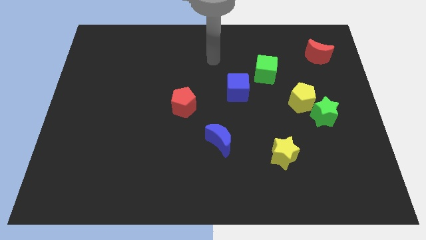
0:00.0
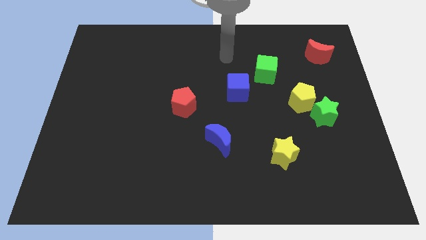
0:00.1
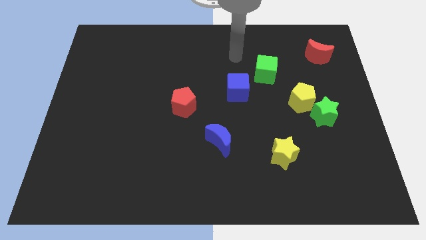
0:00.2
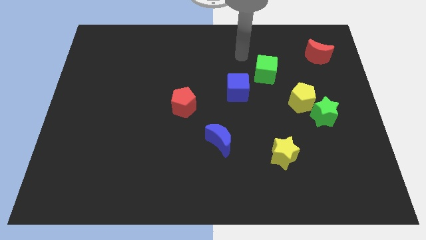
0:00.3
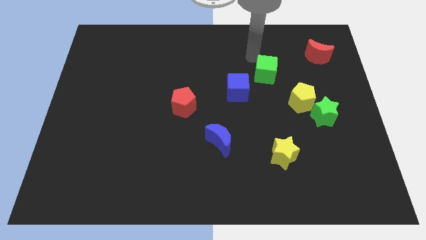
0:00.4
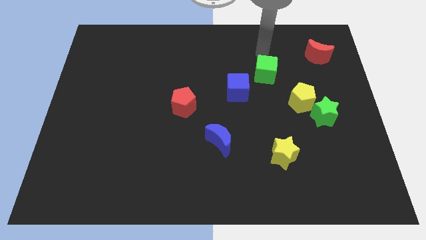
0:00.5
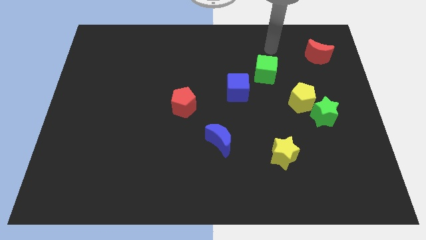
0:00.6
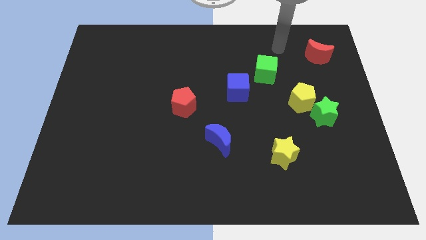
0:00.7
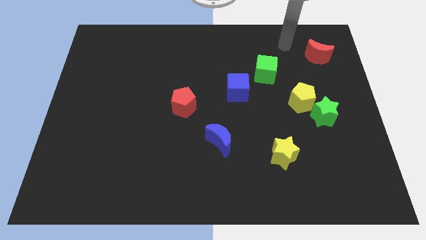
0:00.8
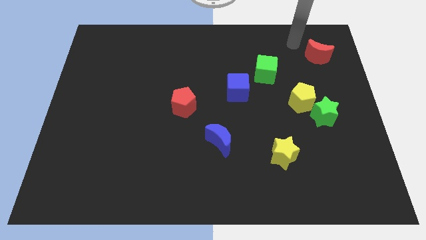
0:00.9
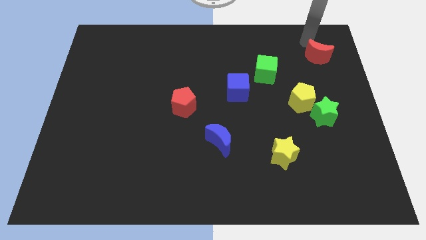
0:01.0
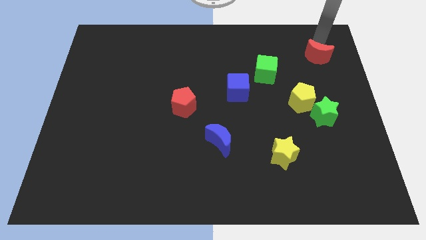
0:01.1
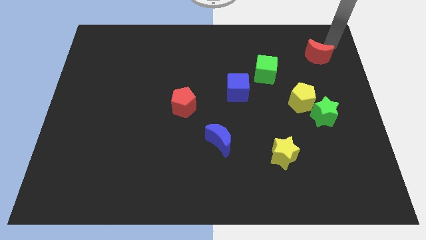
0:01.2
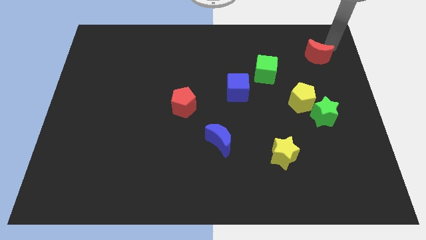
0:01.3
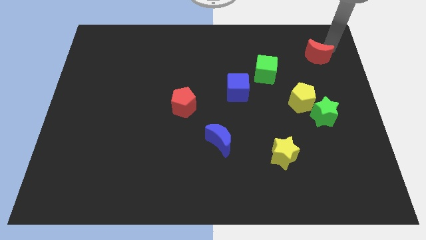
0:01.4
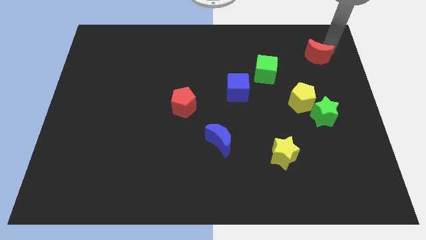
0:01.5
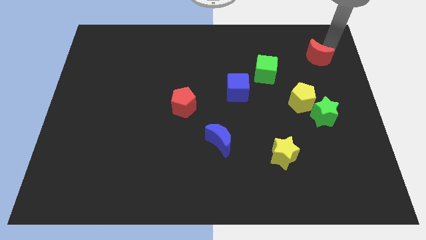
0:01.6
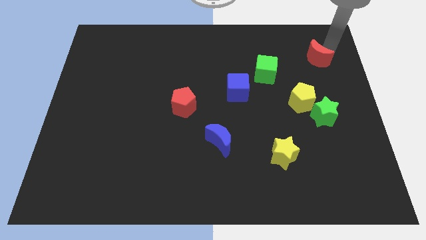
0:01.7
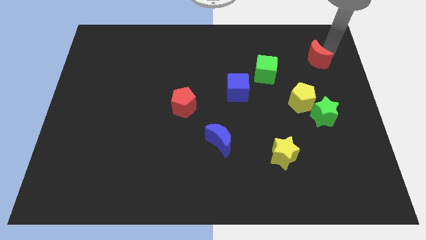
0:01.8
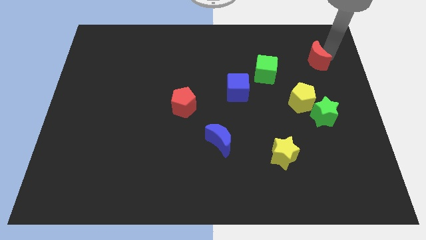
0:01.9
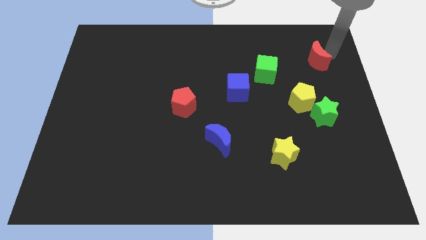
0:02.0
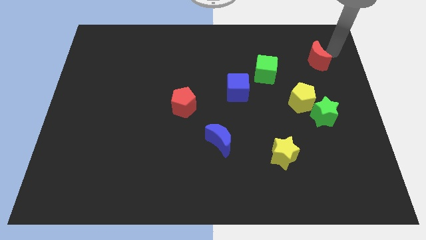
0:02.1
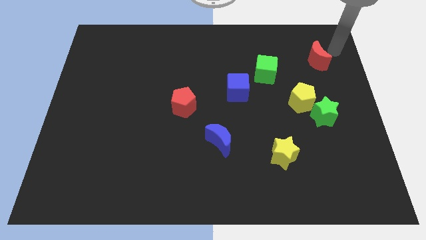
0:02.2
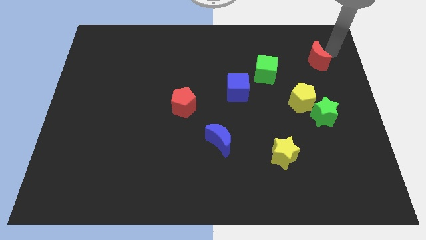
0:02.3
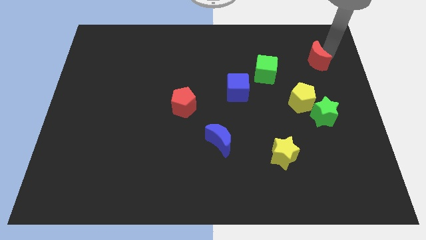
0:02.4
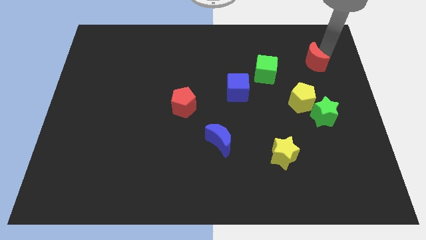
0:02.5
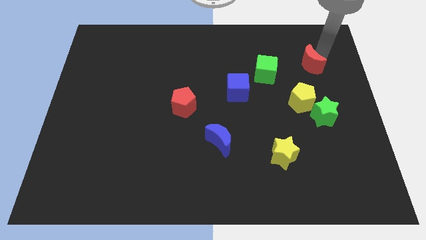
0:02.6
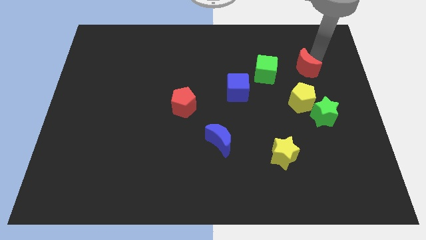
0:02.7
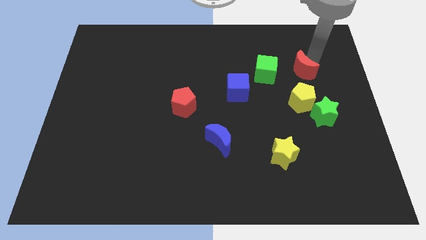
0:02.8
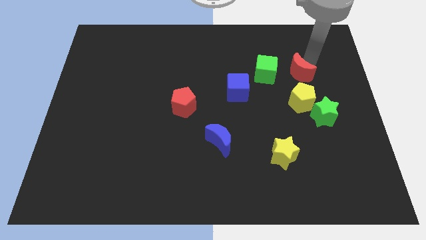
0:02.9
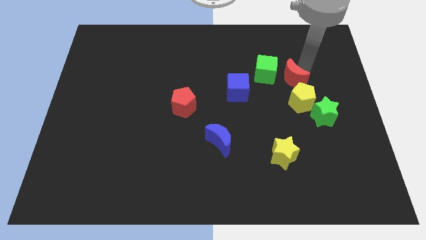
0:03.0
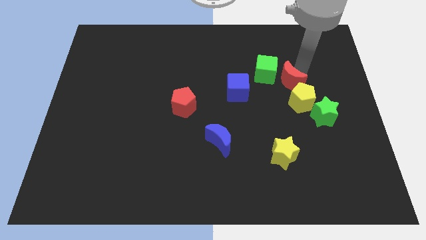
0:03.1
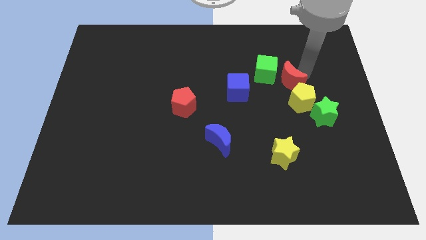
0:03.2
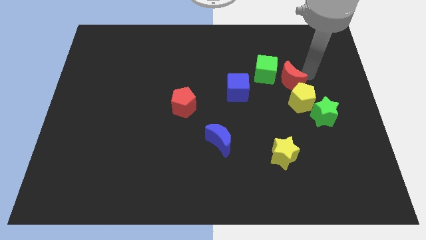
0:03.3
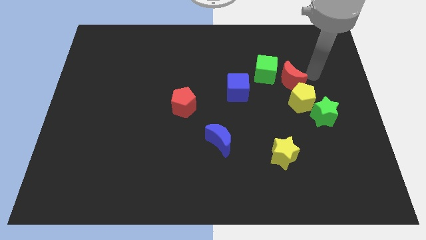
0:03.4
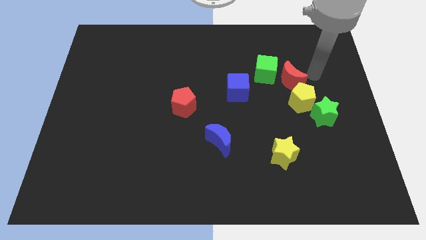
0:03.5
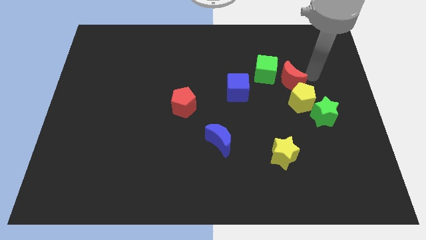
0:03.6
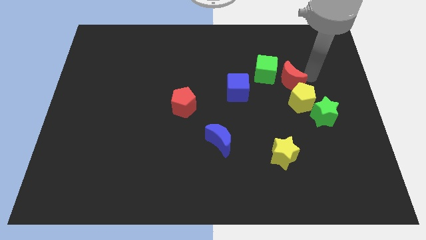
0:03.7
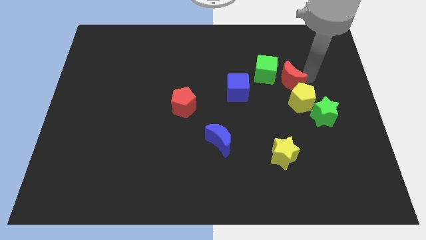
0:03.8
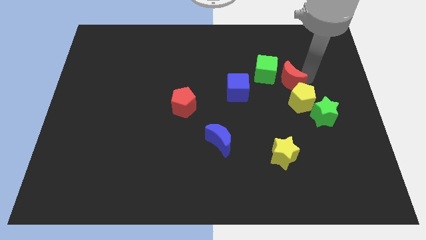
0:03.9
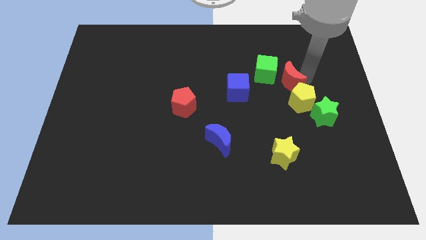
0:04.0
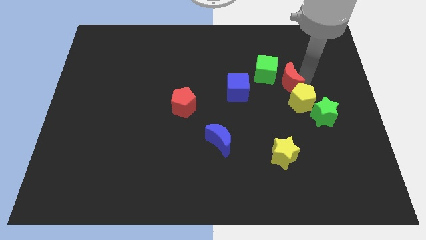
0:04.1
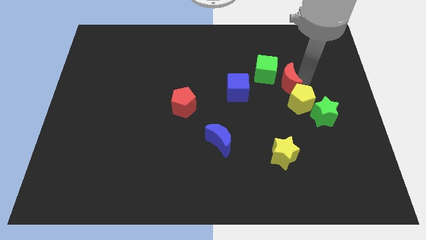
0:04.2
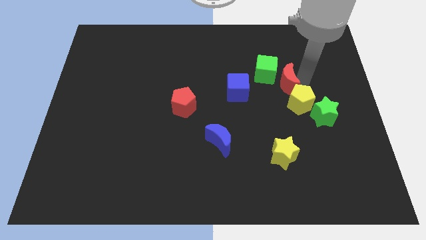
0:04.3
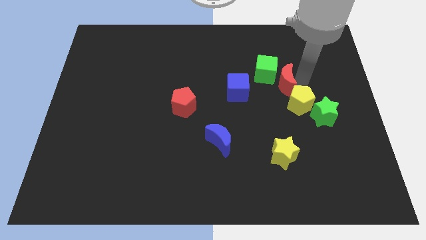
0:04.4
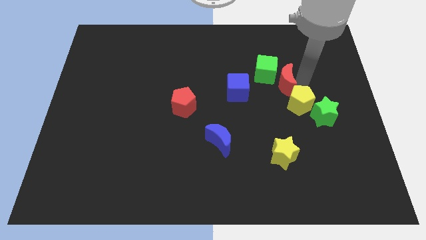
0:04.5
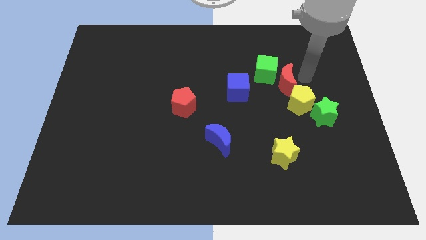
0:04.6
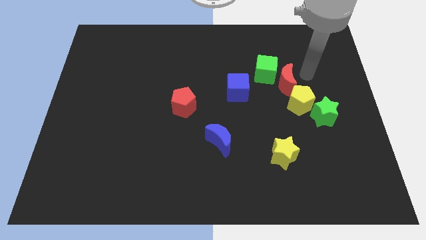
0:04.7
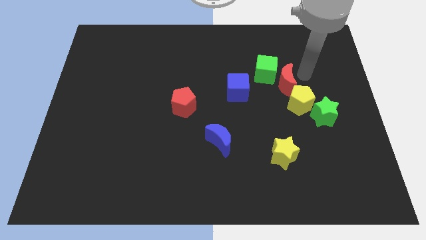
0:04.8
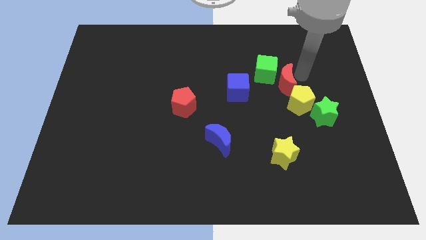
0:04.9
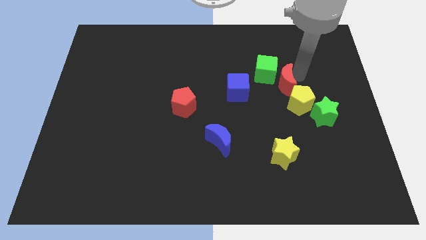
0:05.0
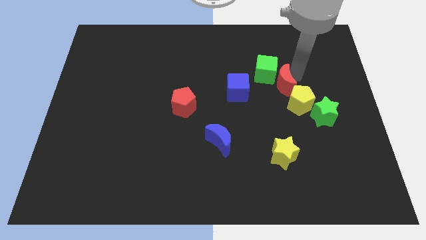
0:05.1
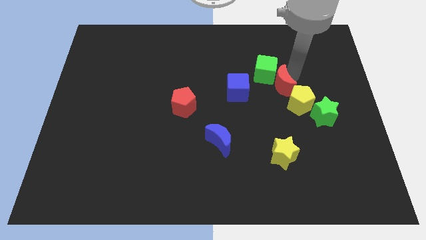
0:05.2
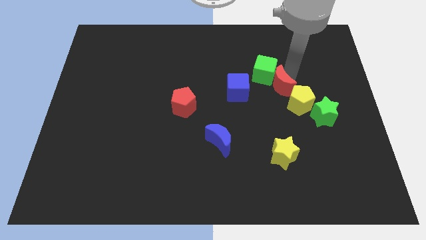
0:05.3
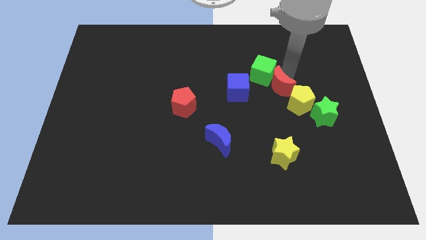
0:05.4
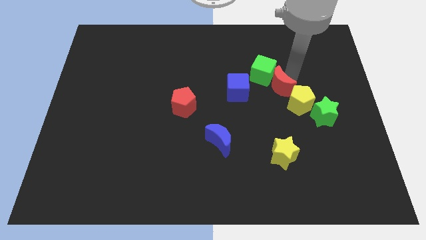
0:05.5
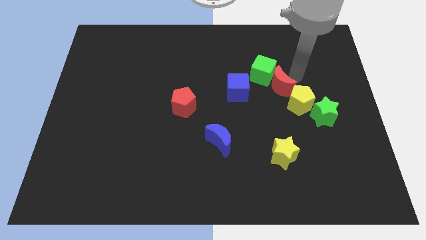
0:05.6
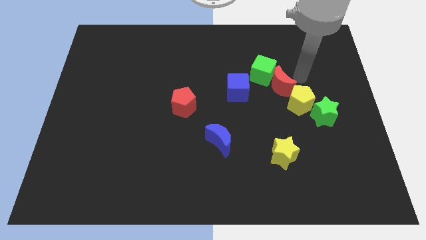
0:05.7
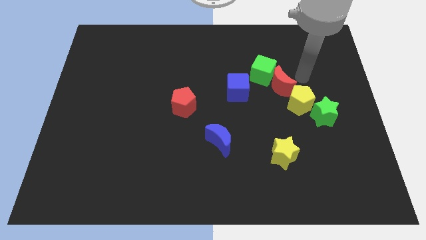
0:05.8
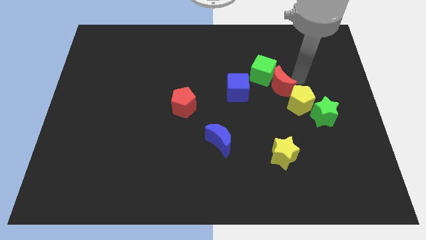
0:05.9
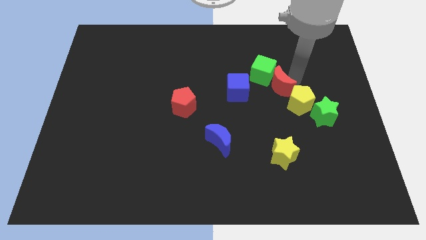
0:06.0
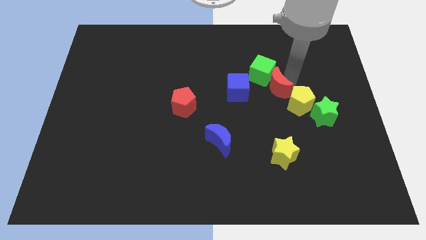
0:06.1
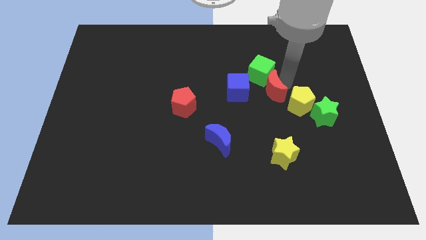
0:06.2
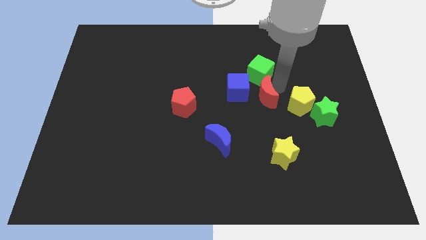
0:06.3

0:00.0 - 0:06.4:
put the red moon to the middle

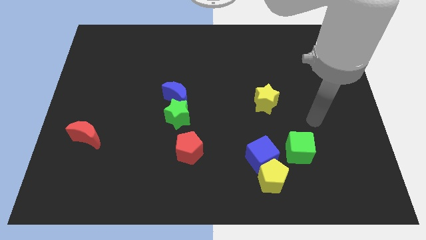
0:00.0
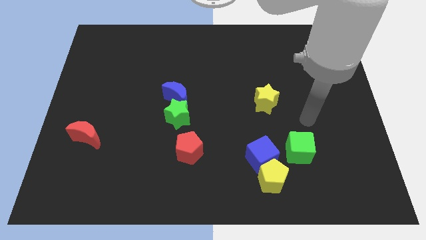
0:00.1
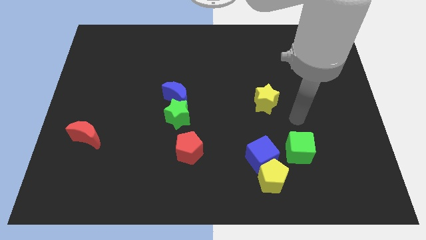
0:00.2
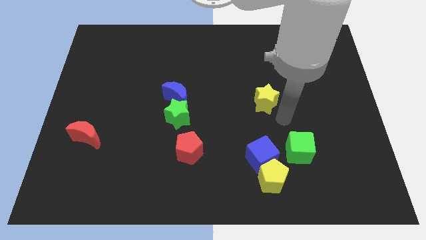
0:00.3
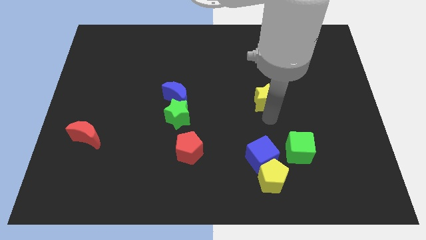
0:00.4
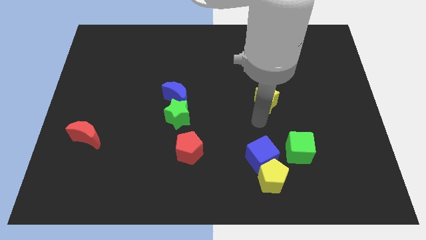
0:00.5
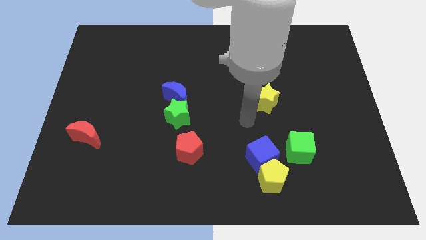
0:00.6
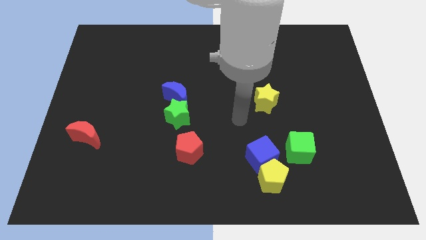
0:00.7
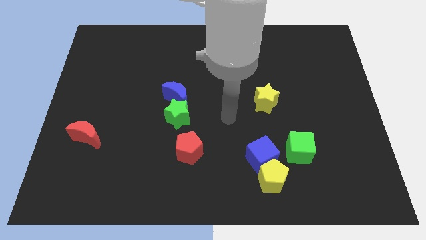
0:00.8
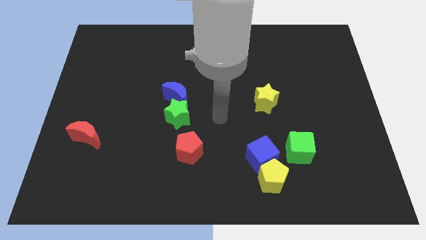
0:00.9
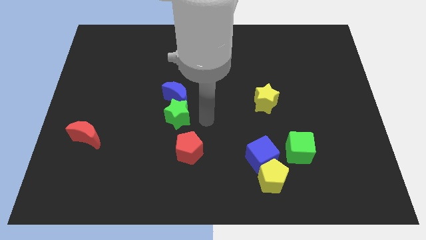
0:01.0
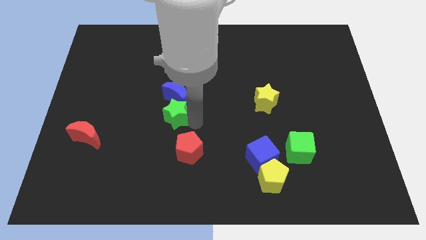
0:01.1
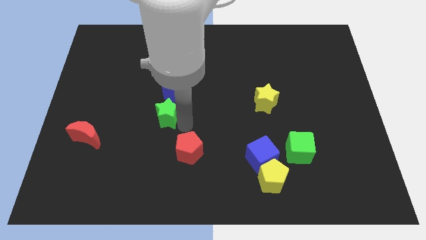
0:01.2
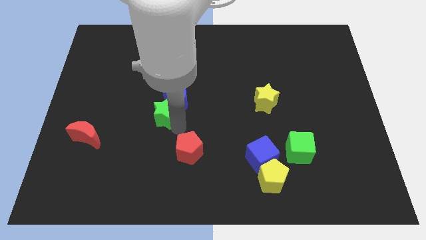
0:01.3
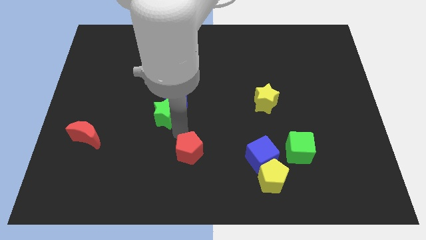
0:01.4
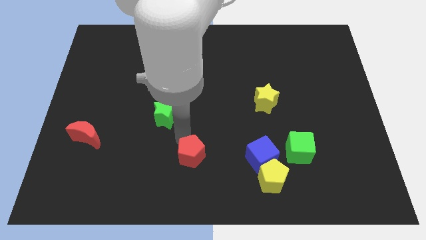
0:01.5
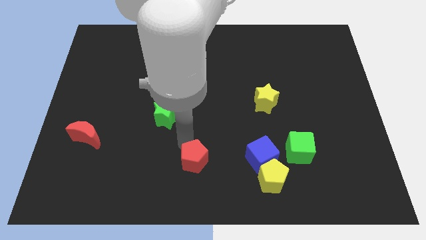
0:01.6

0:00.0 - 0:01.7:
move the red pentagon to the bottom side
